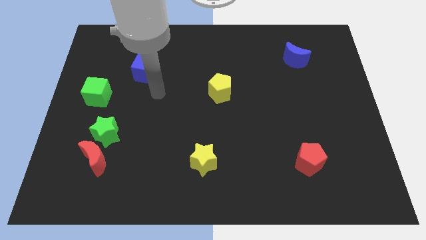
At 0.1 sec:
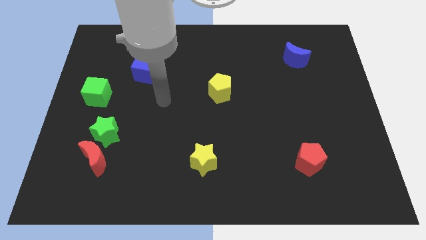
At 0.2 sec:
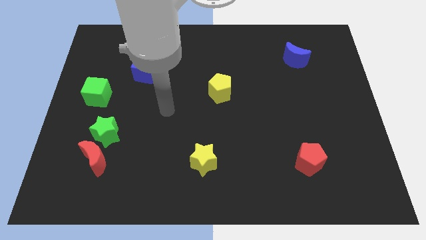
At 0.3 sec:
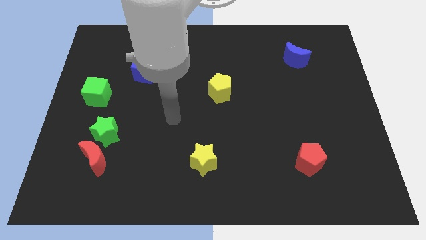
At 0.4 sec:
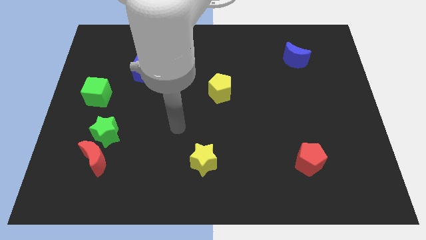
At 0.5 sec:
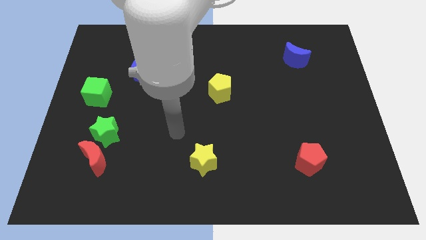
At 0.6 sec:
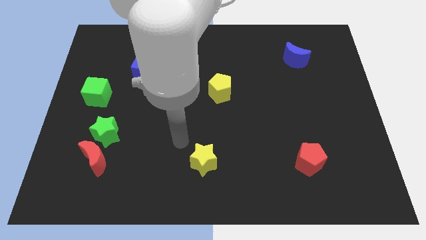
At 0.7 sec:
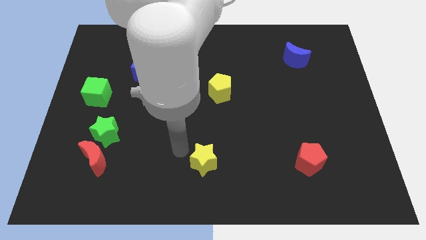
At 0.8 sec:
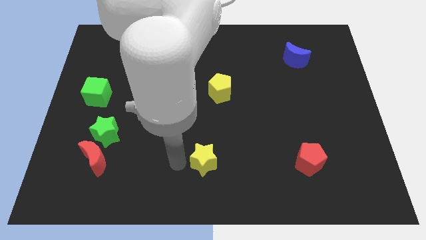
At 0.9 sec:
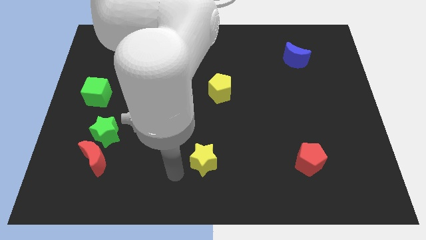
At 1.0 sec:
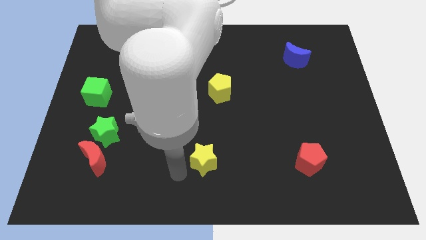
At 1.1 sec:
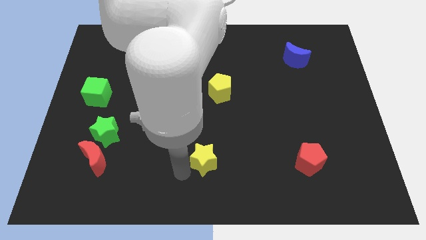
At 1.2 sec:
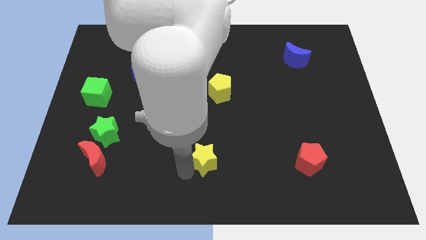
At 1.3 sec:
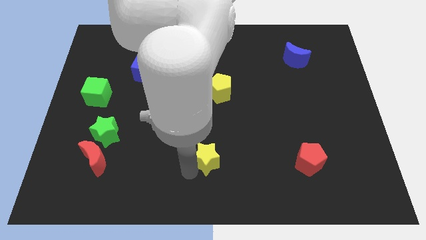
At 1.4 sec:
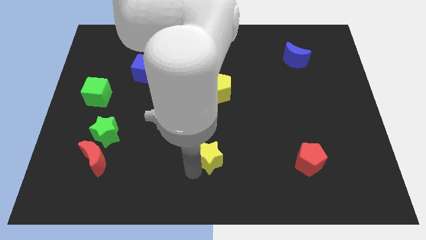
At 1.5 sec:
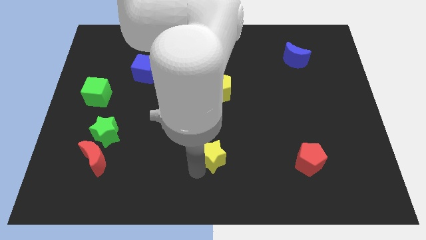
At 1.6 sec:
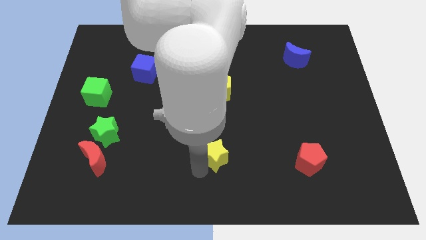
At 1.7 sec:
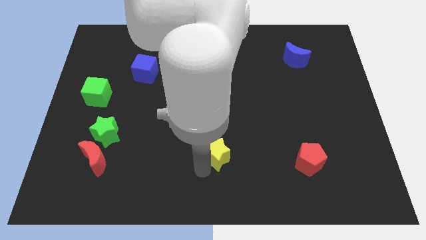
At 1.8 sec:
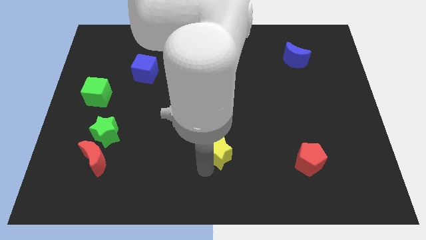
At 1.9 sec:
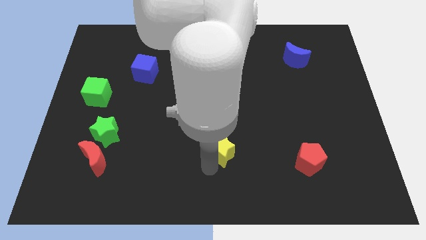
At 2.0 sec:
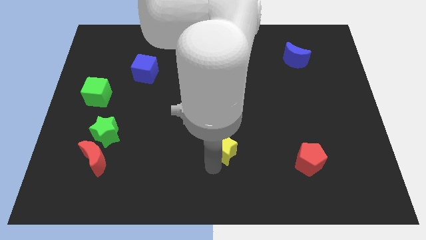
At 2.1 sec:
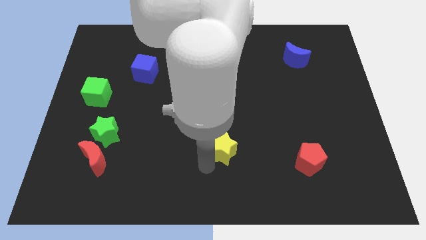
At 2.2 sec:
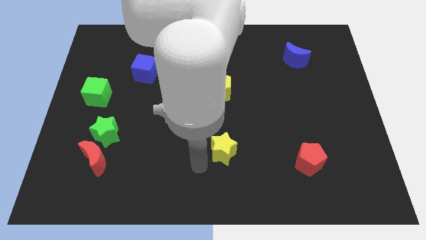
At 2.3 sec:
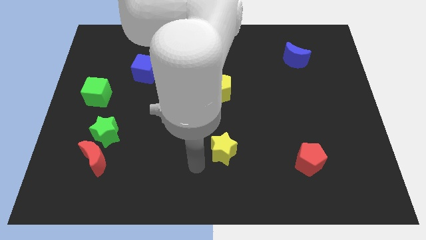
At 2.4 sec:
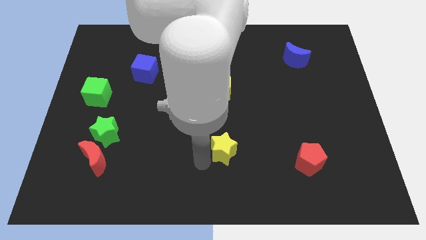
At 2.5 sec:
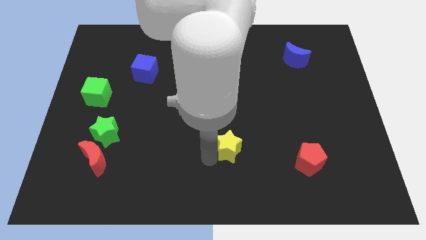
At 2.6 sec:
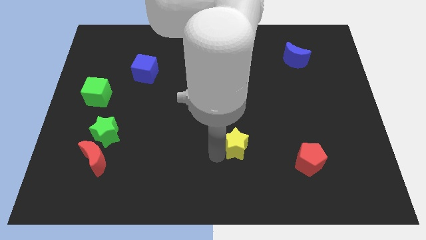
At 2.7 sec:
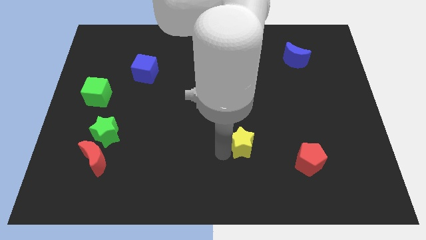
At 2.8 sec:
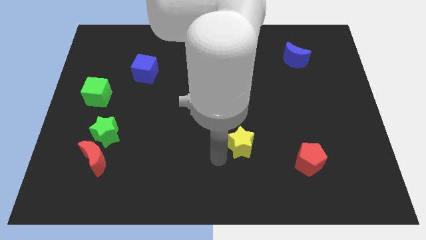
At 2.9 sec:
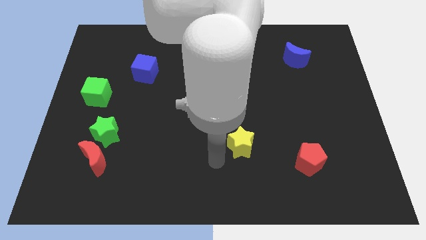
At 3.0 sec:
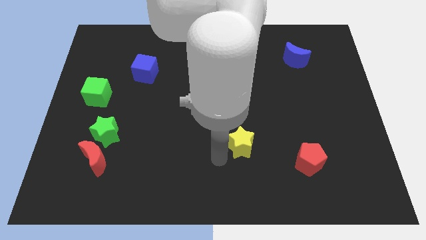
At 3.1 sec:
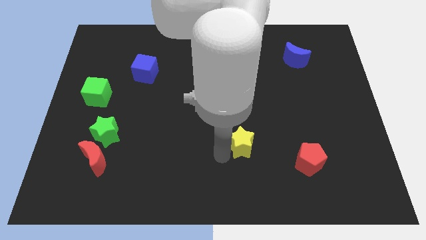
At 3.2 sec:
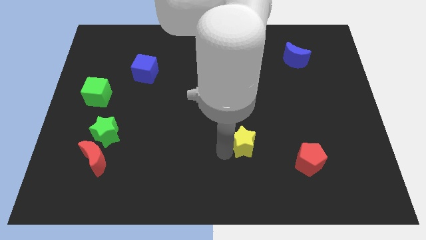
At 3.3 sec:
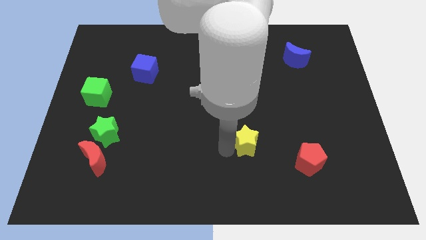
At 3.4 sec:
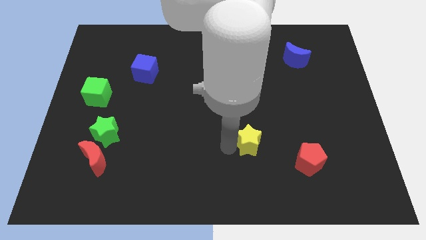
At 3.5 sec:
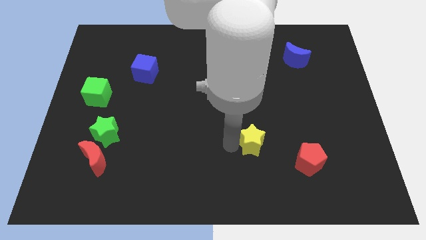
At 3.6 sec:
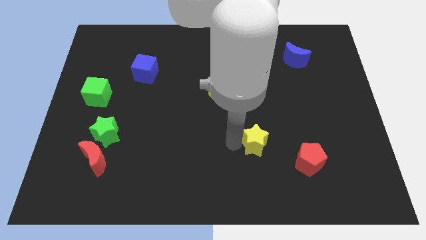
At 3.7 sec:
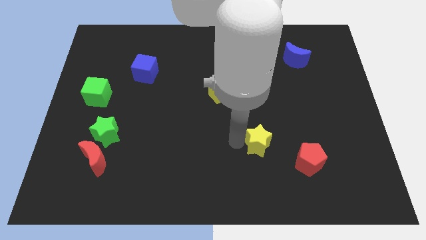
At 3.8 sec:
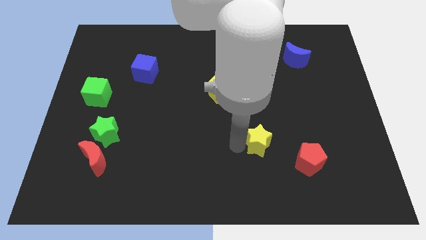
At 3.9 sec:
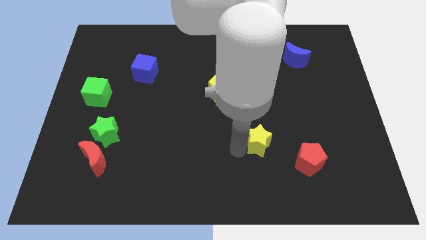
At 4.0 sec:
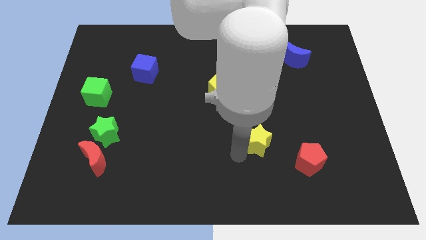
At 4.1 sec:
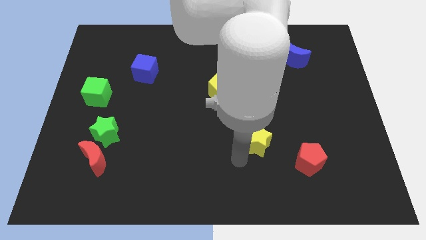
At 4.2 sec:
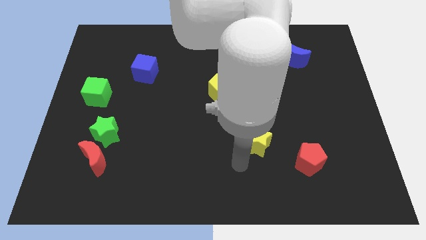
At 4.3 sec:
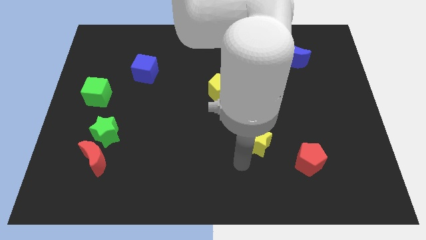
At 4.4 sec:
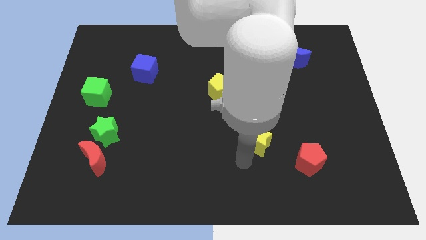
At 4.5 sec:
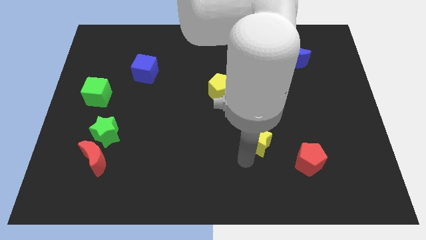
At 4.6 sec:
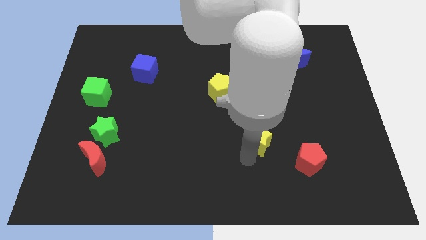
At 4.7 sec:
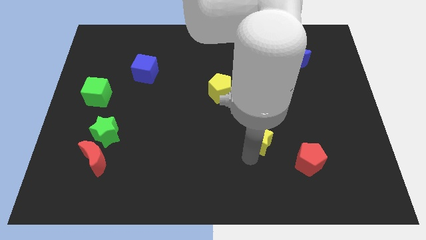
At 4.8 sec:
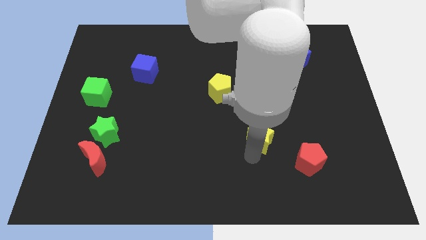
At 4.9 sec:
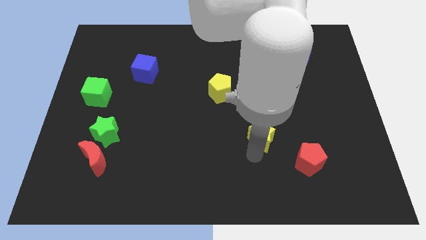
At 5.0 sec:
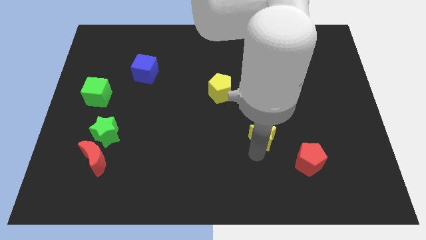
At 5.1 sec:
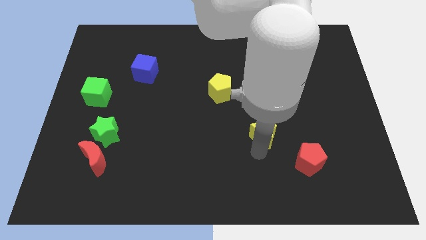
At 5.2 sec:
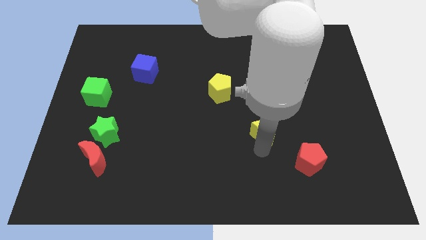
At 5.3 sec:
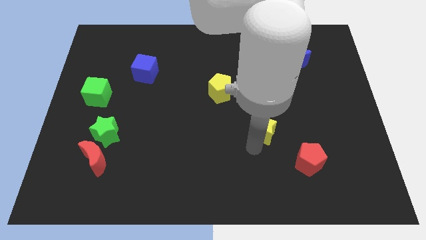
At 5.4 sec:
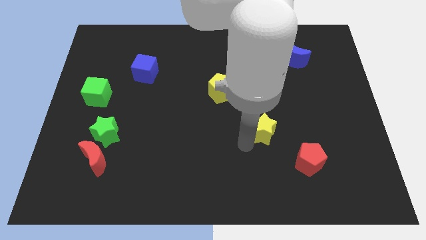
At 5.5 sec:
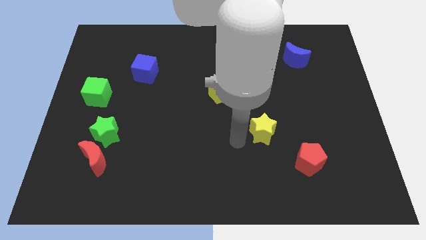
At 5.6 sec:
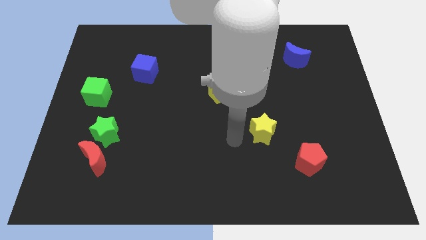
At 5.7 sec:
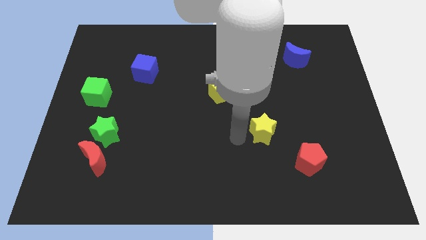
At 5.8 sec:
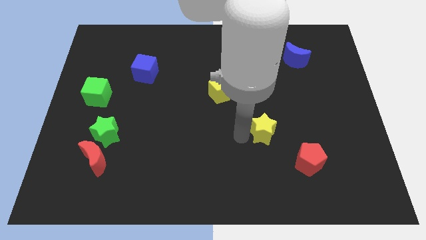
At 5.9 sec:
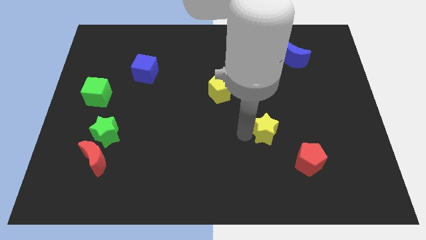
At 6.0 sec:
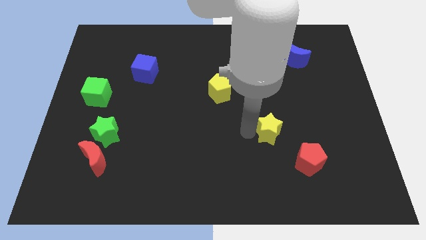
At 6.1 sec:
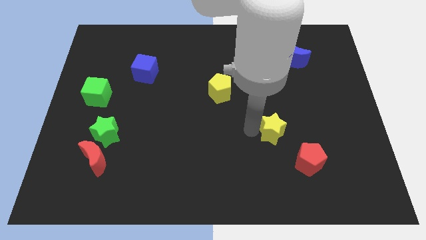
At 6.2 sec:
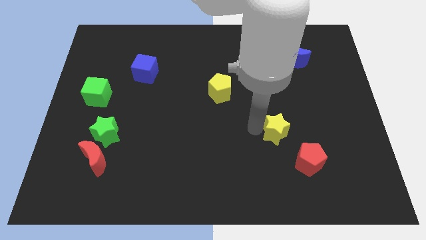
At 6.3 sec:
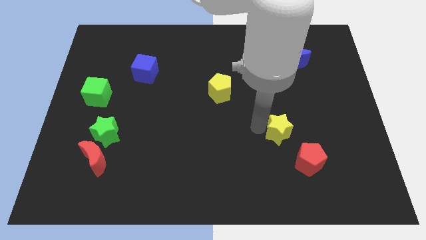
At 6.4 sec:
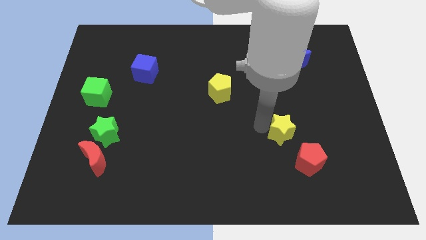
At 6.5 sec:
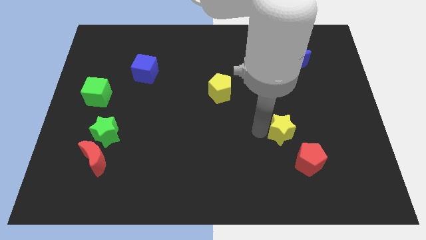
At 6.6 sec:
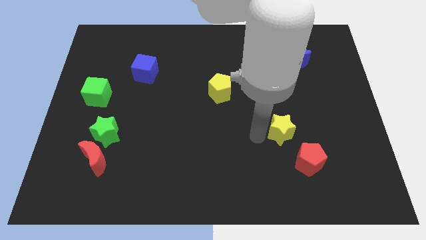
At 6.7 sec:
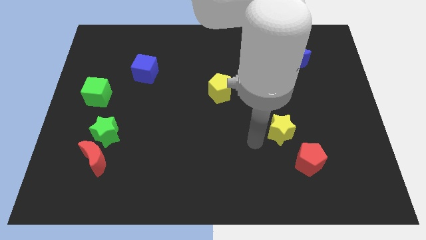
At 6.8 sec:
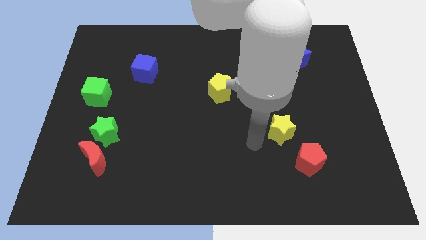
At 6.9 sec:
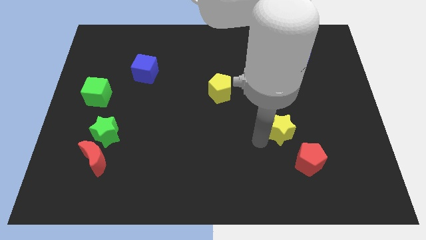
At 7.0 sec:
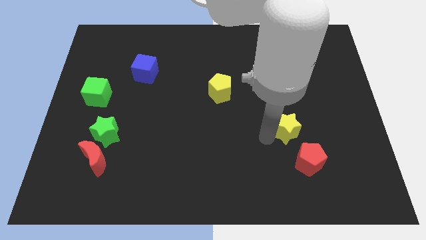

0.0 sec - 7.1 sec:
move the yellow star above the red pentagon
